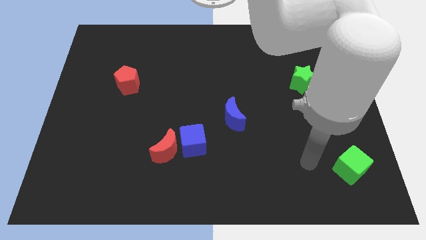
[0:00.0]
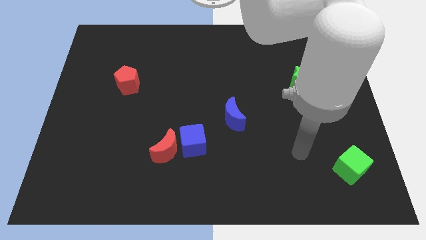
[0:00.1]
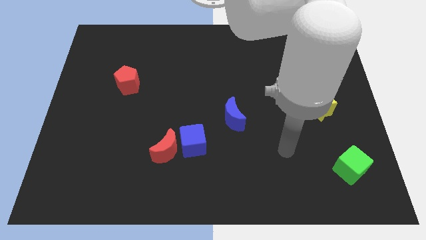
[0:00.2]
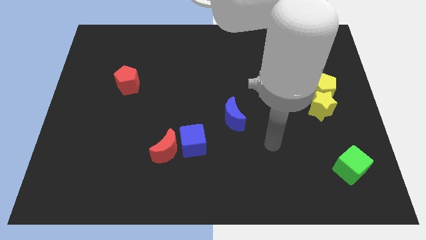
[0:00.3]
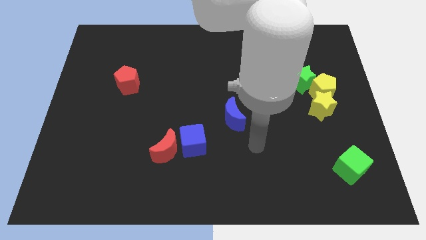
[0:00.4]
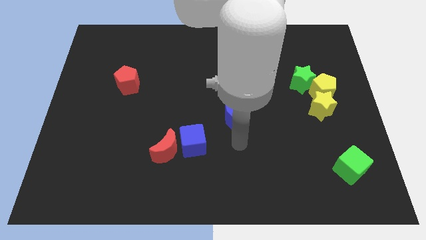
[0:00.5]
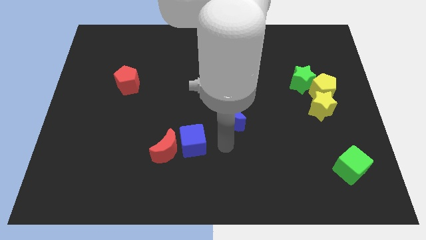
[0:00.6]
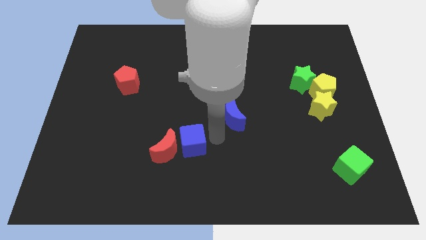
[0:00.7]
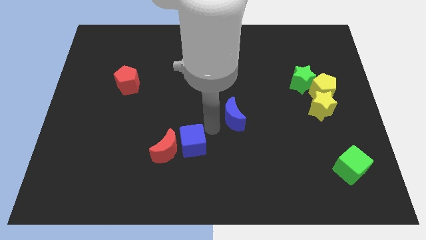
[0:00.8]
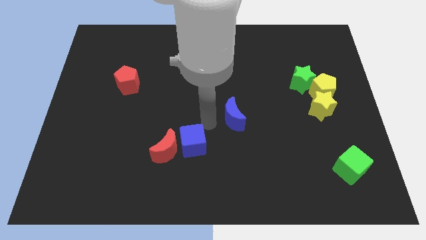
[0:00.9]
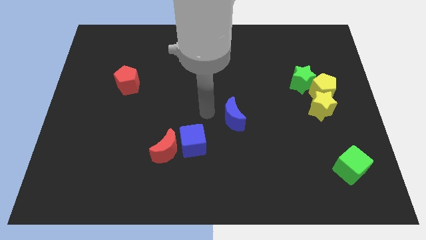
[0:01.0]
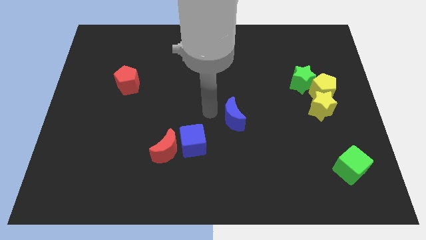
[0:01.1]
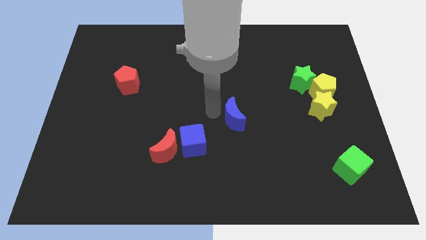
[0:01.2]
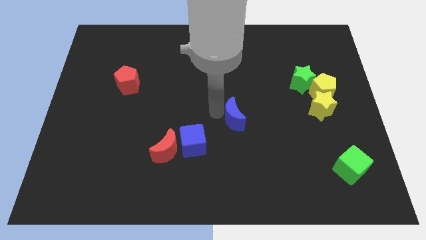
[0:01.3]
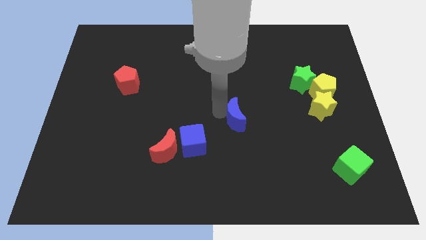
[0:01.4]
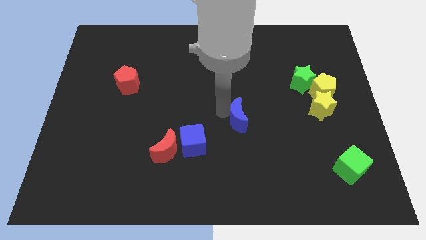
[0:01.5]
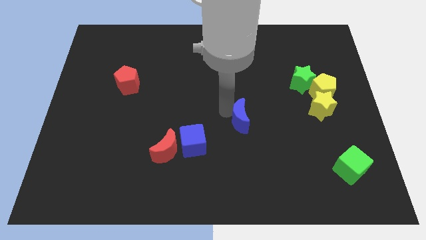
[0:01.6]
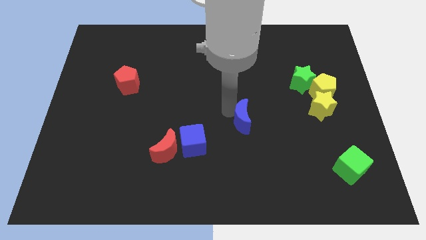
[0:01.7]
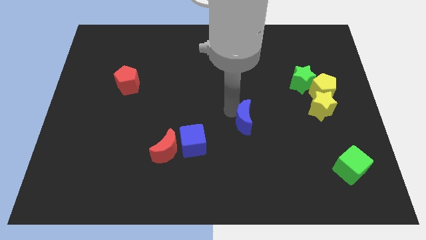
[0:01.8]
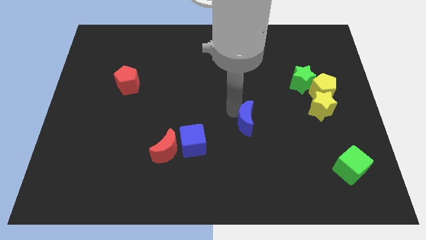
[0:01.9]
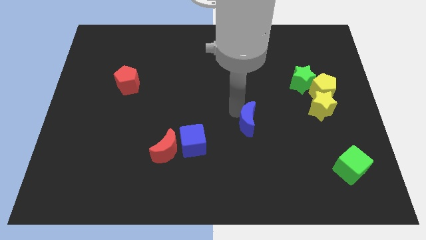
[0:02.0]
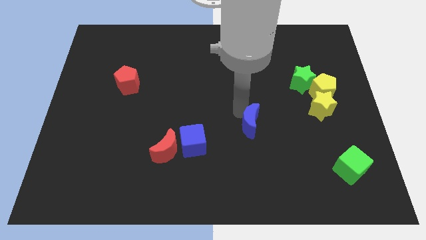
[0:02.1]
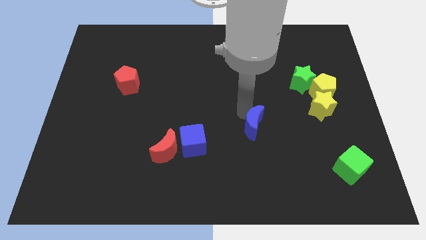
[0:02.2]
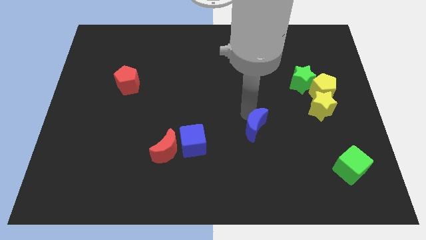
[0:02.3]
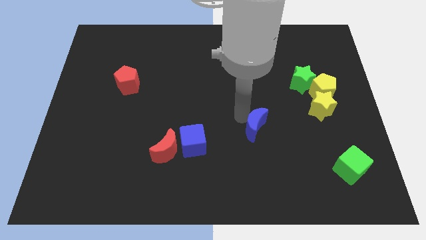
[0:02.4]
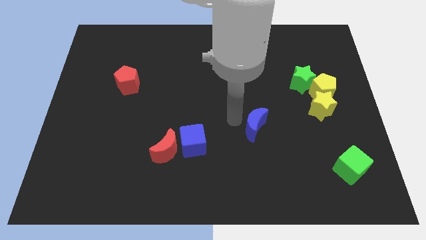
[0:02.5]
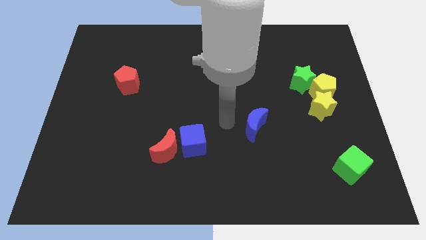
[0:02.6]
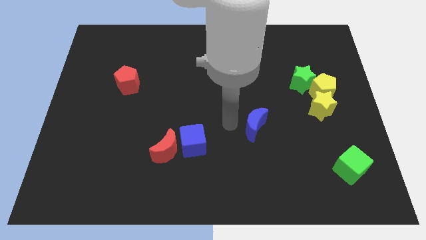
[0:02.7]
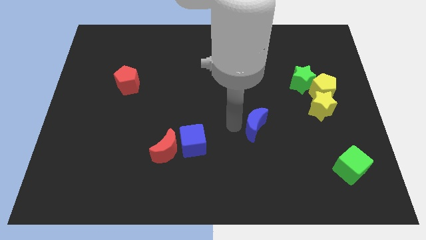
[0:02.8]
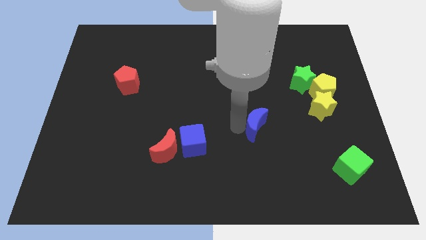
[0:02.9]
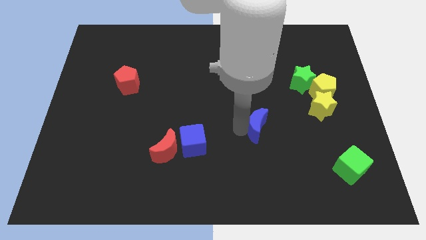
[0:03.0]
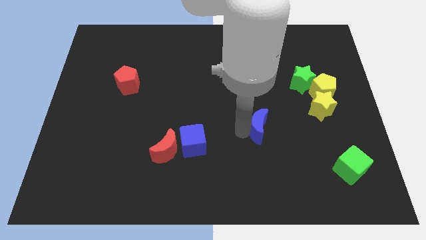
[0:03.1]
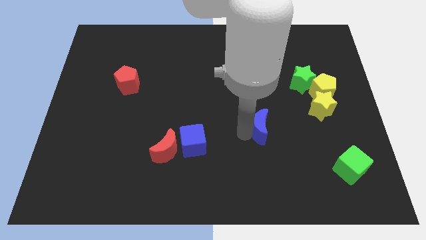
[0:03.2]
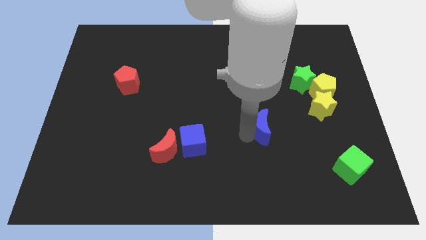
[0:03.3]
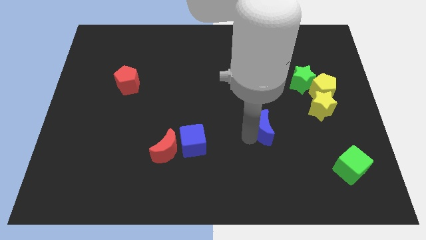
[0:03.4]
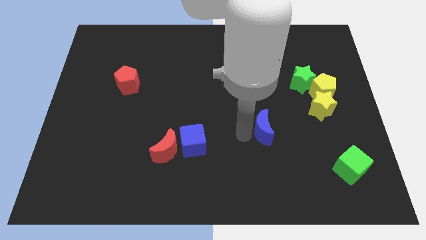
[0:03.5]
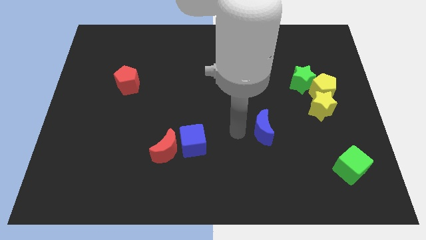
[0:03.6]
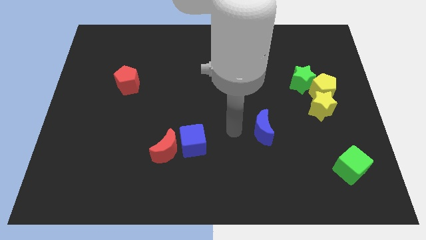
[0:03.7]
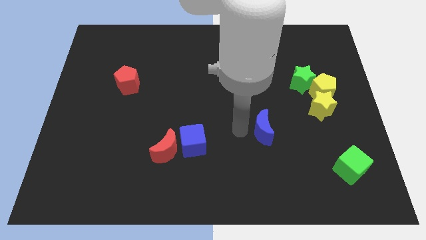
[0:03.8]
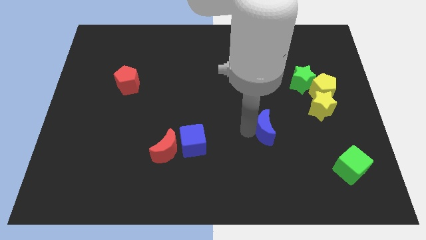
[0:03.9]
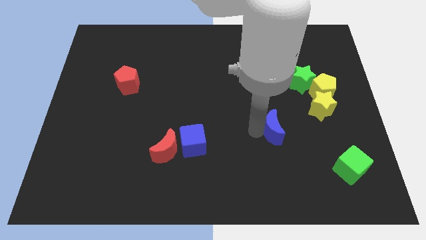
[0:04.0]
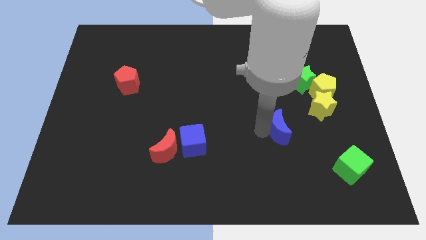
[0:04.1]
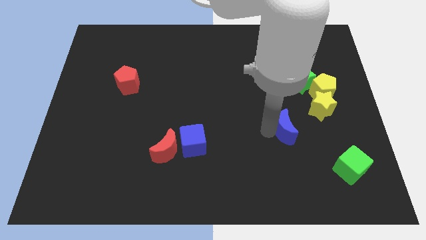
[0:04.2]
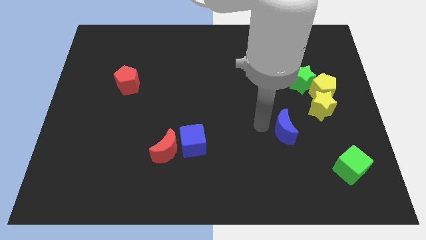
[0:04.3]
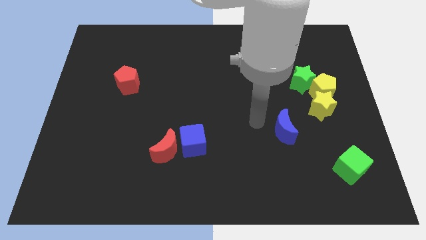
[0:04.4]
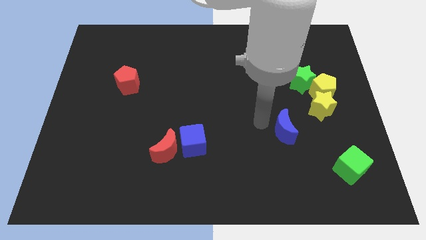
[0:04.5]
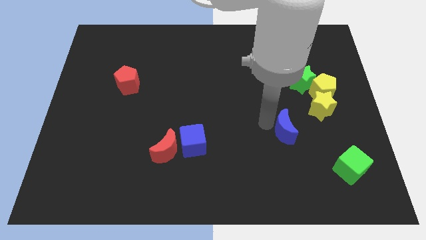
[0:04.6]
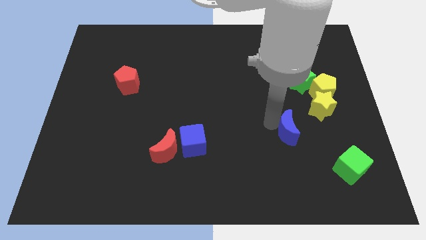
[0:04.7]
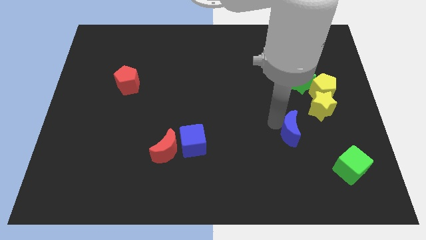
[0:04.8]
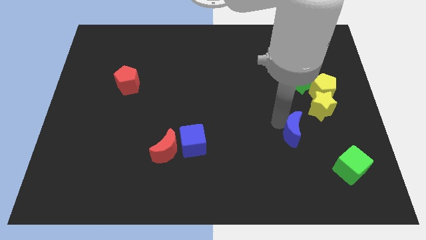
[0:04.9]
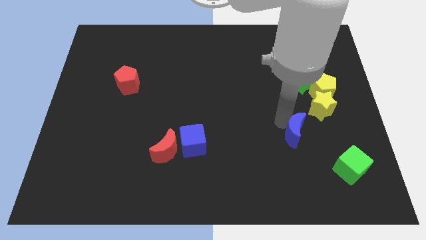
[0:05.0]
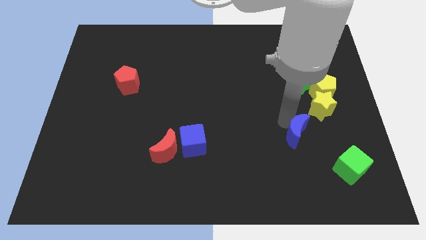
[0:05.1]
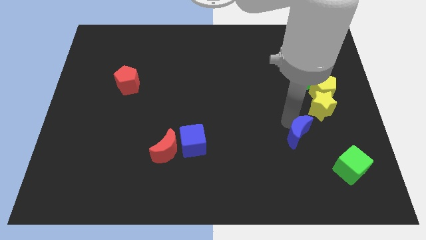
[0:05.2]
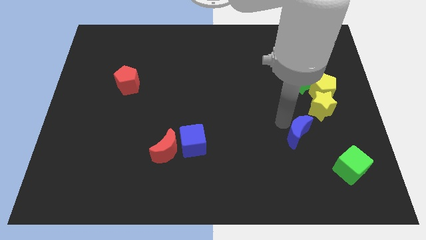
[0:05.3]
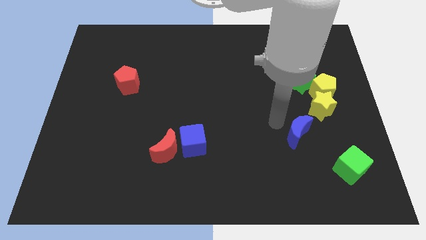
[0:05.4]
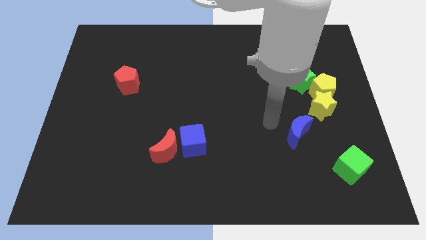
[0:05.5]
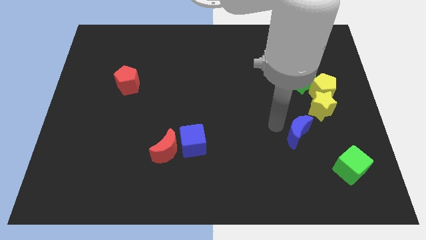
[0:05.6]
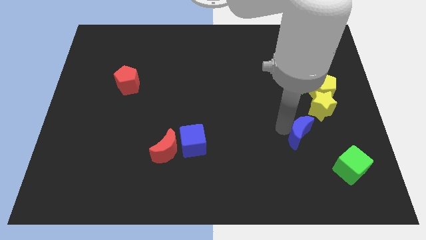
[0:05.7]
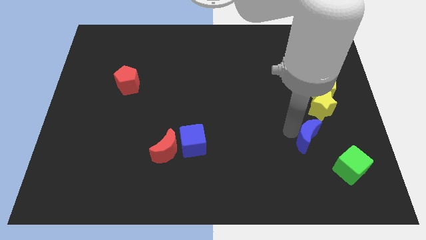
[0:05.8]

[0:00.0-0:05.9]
put the blue moon to the bottom of the yellow star

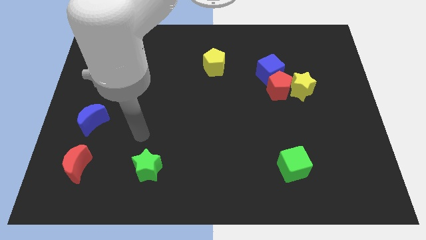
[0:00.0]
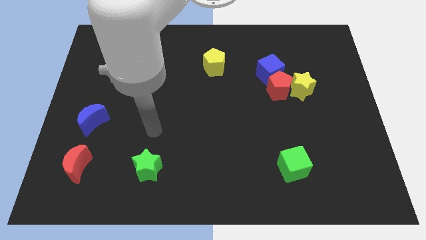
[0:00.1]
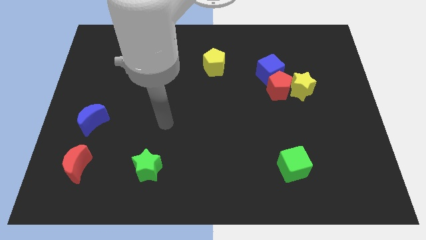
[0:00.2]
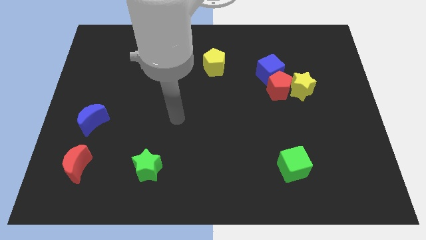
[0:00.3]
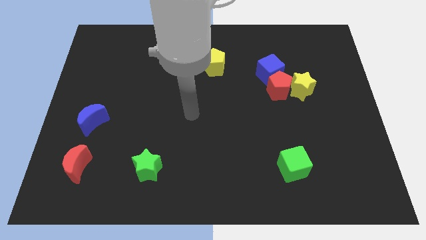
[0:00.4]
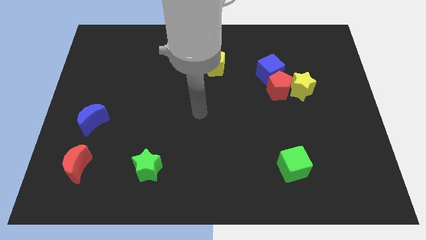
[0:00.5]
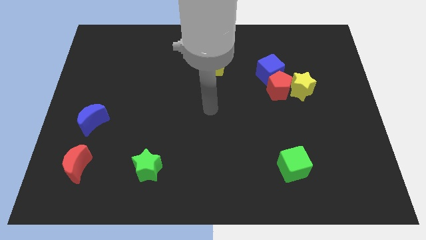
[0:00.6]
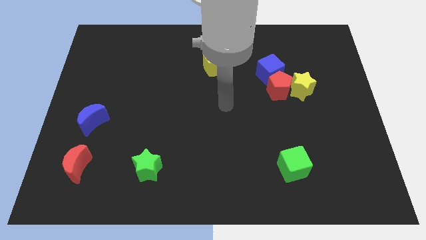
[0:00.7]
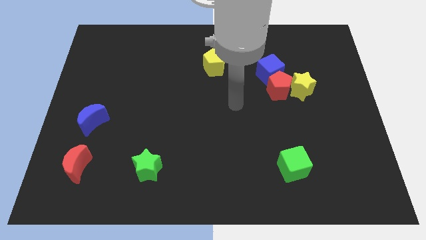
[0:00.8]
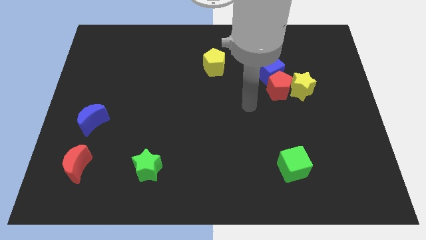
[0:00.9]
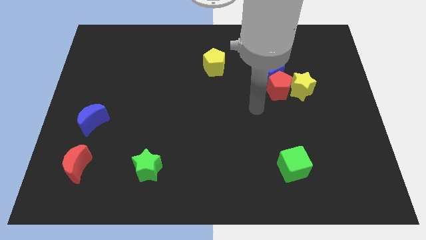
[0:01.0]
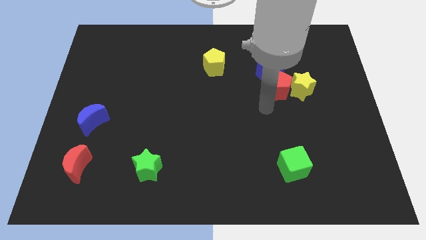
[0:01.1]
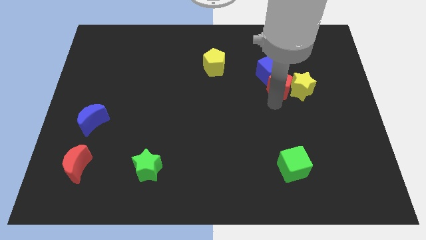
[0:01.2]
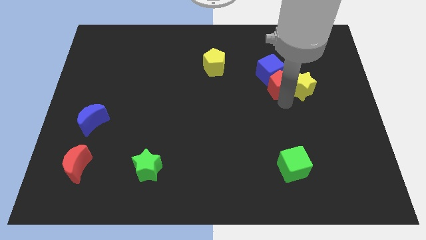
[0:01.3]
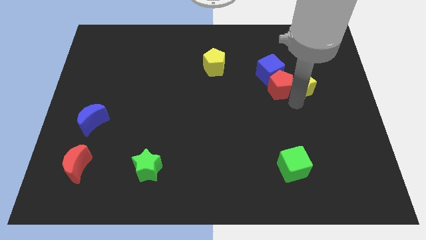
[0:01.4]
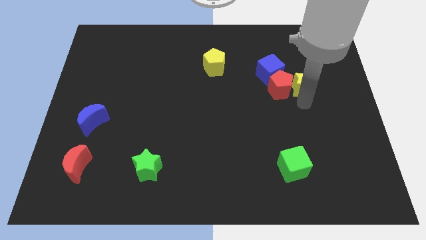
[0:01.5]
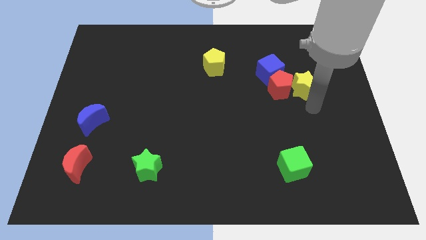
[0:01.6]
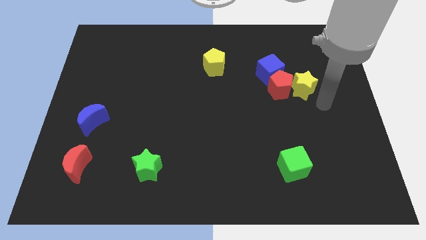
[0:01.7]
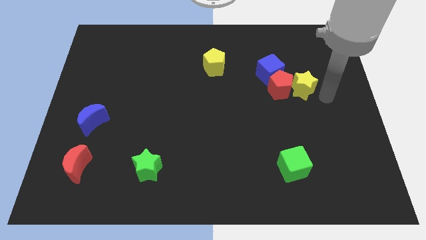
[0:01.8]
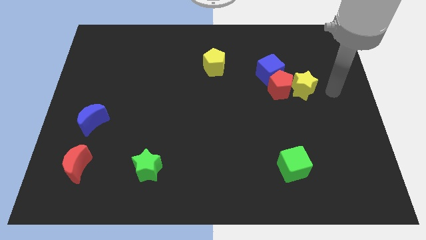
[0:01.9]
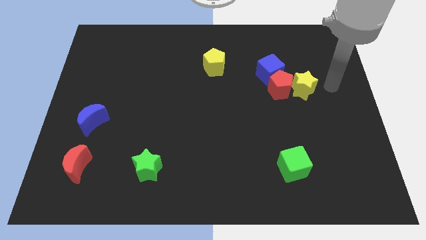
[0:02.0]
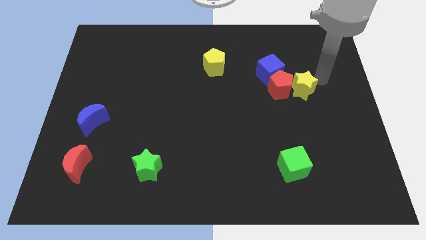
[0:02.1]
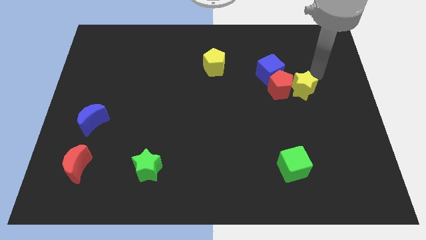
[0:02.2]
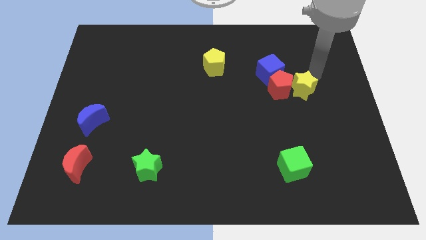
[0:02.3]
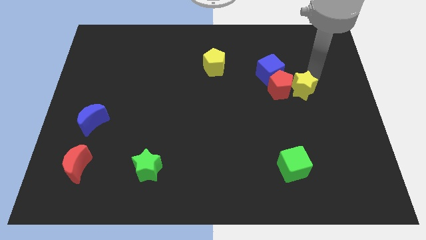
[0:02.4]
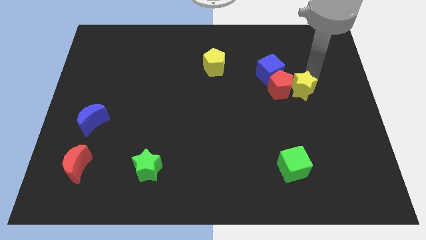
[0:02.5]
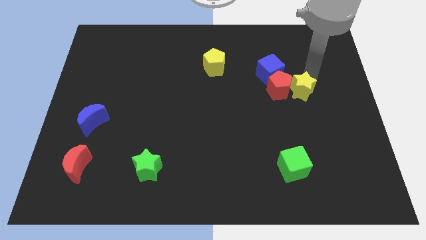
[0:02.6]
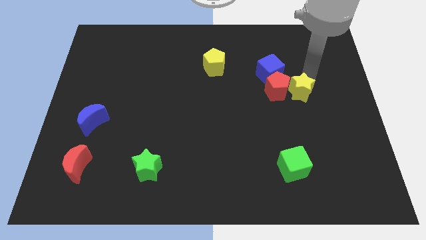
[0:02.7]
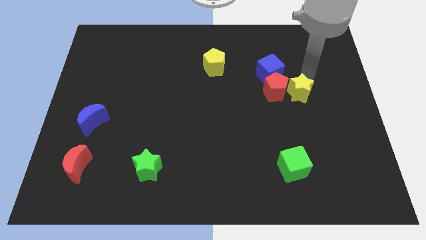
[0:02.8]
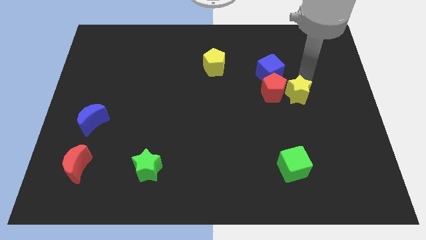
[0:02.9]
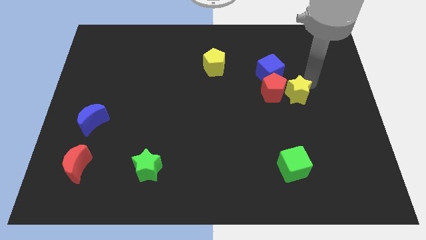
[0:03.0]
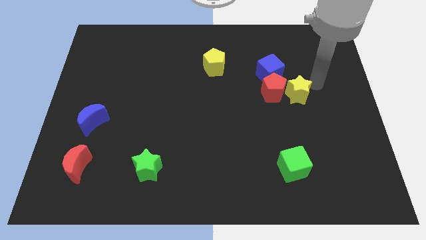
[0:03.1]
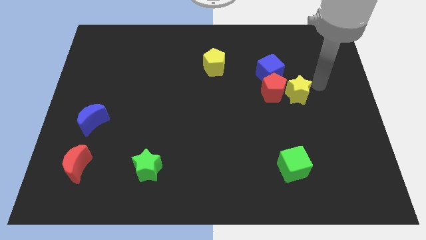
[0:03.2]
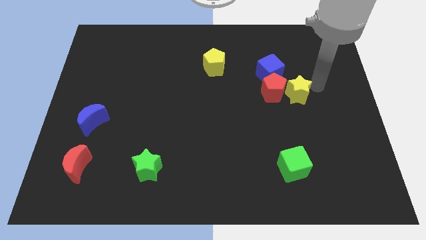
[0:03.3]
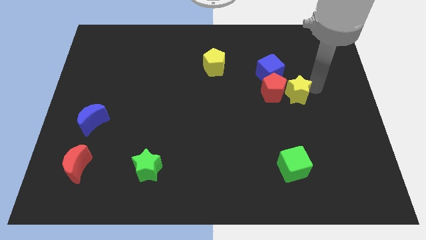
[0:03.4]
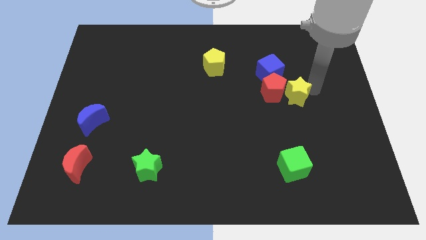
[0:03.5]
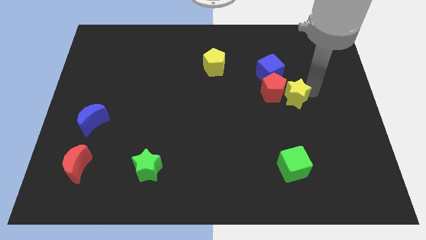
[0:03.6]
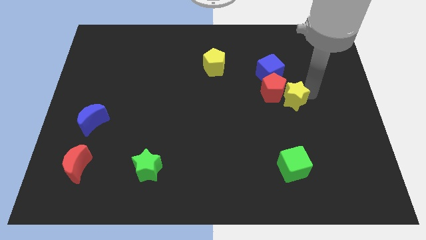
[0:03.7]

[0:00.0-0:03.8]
push the yellow star to the bottom side of the blue cube
